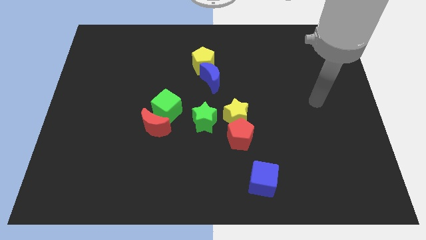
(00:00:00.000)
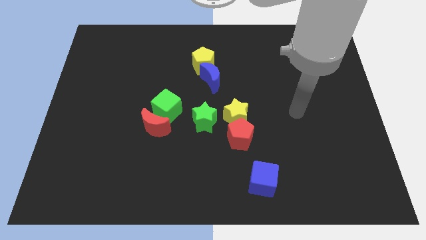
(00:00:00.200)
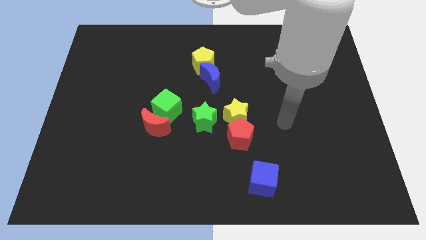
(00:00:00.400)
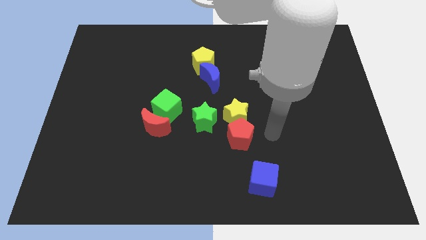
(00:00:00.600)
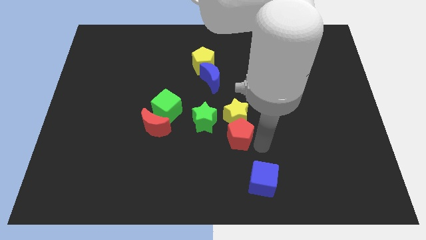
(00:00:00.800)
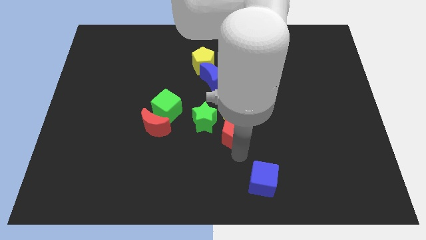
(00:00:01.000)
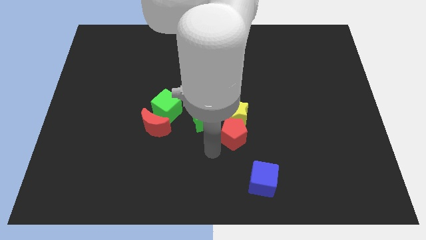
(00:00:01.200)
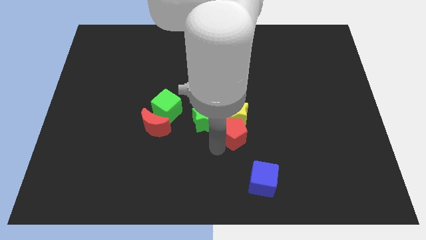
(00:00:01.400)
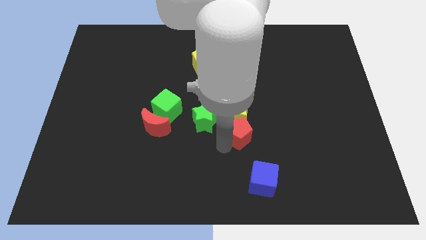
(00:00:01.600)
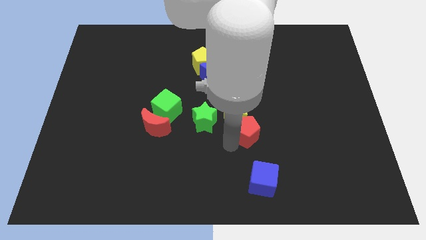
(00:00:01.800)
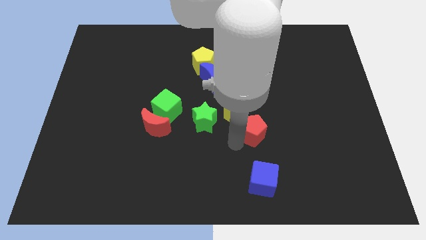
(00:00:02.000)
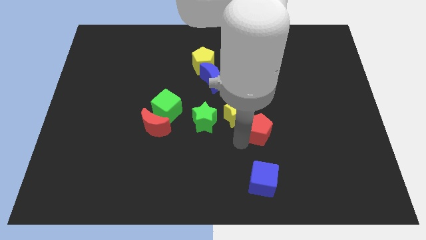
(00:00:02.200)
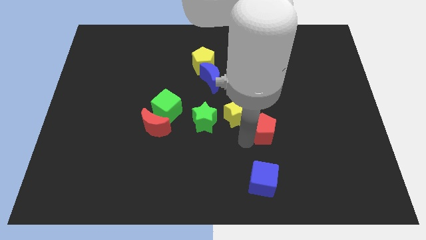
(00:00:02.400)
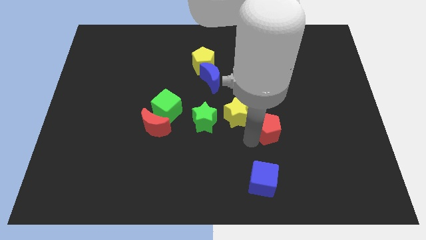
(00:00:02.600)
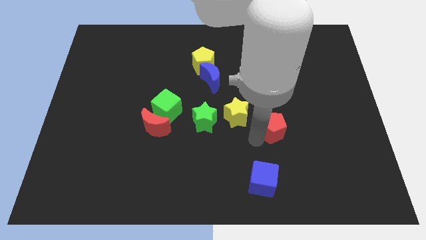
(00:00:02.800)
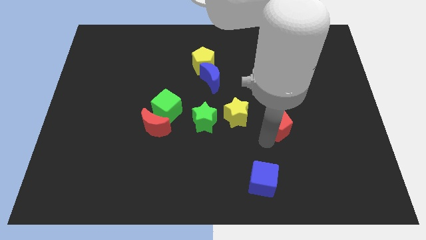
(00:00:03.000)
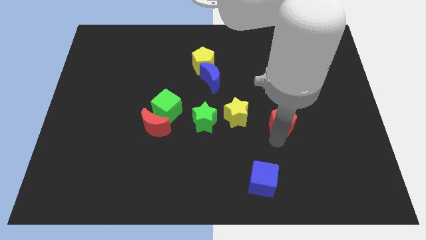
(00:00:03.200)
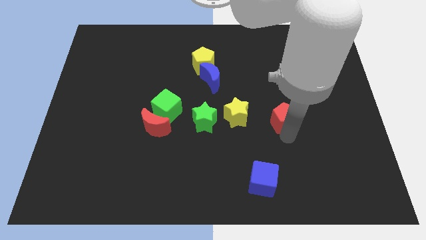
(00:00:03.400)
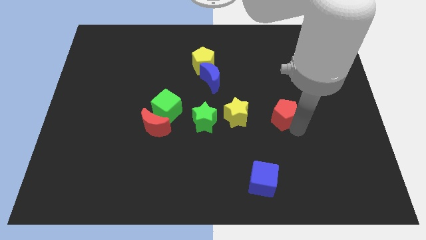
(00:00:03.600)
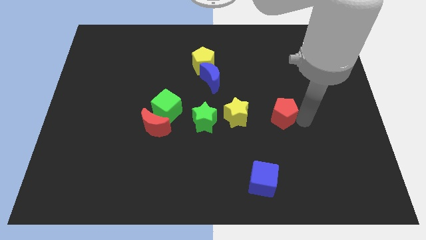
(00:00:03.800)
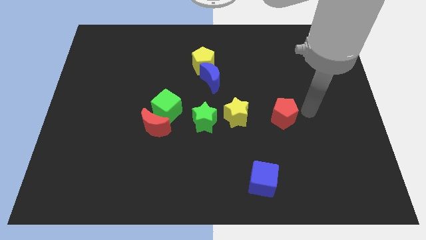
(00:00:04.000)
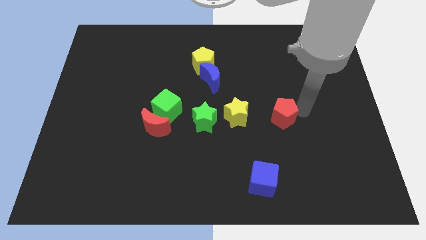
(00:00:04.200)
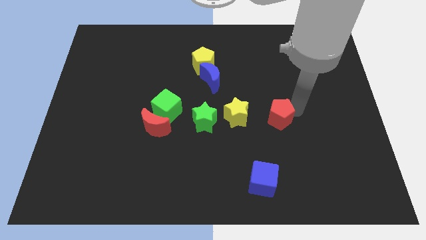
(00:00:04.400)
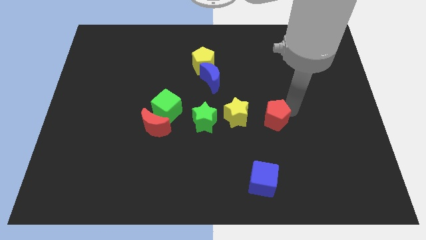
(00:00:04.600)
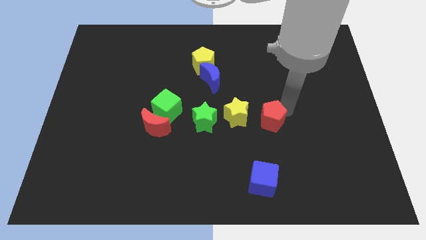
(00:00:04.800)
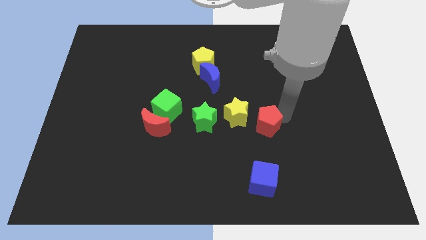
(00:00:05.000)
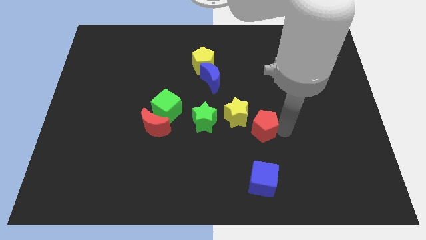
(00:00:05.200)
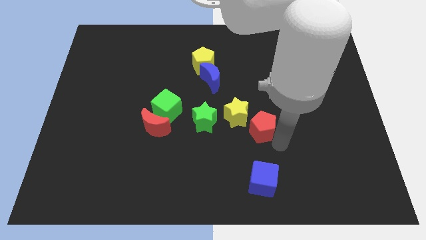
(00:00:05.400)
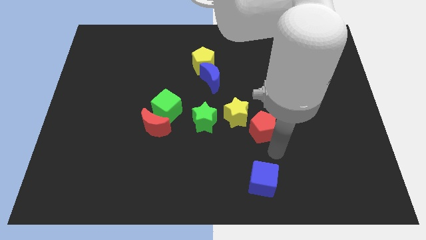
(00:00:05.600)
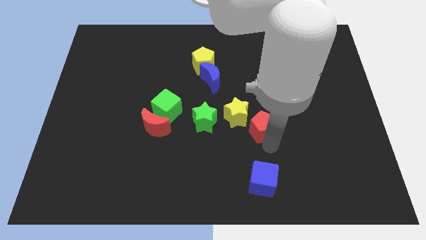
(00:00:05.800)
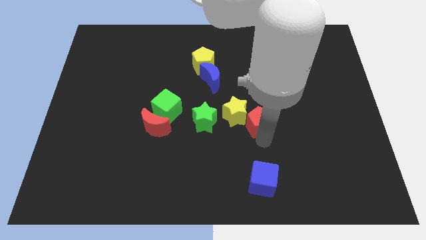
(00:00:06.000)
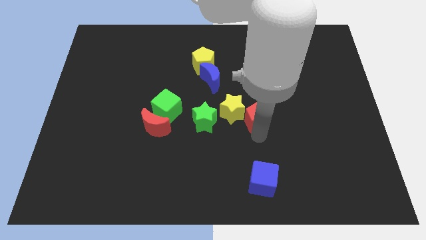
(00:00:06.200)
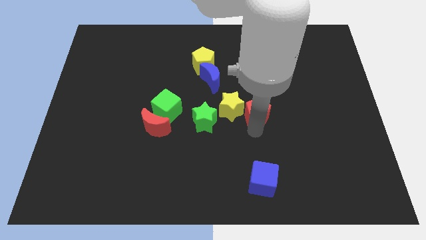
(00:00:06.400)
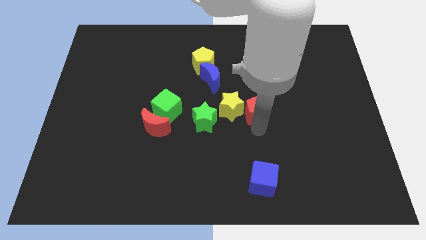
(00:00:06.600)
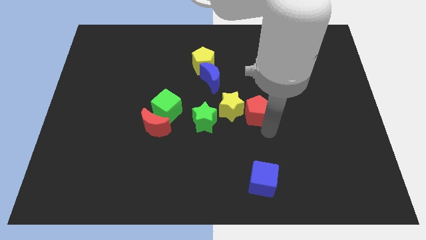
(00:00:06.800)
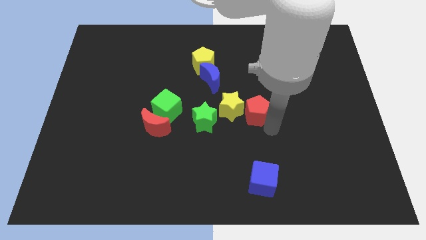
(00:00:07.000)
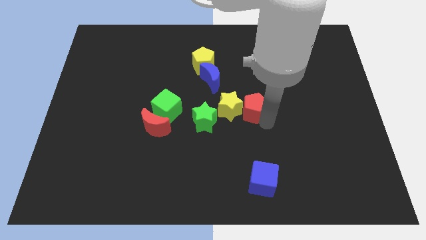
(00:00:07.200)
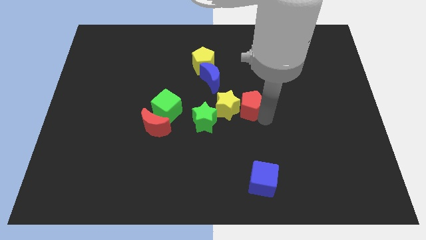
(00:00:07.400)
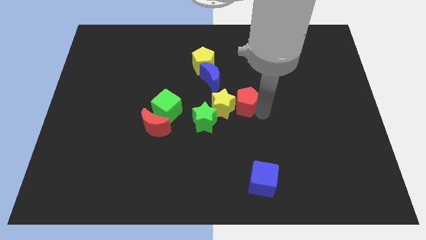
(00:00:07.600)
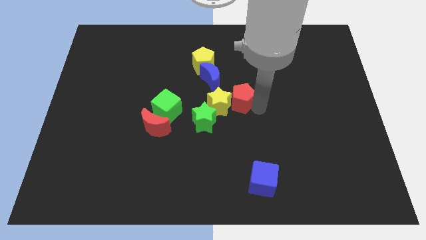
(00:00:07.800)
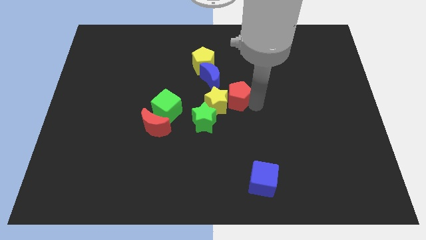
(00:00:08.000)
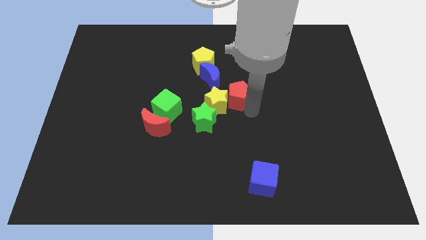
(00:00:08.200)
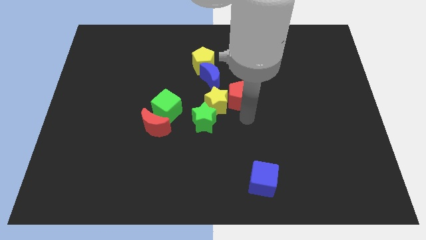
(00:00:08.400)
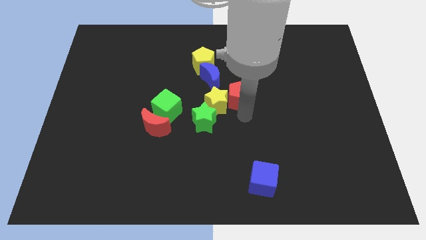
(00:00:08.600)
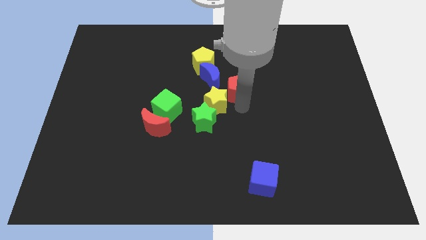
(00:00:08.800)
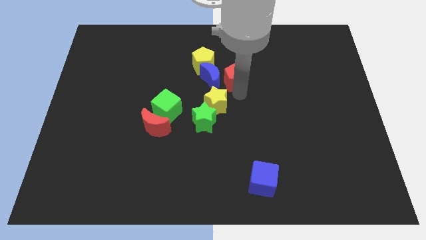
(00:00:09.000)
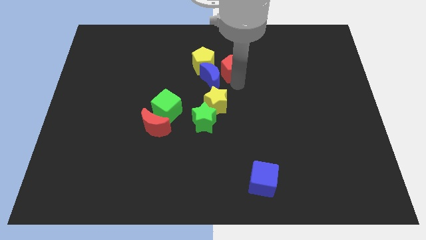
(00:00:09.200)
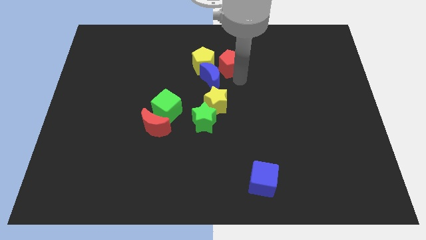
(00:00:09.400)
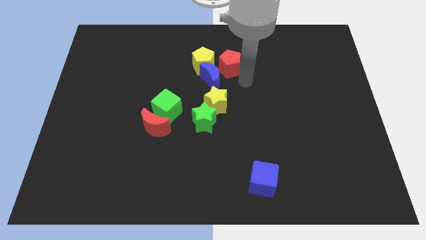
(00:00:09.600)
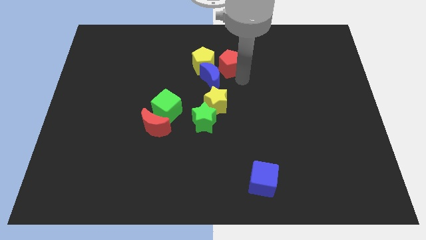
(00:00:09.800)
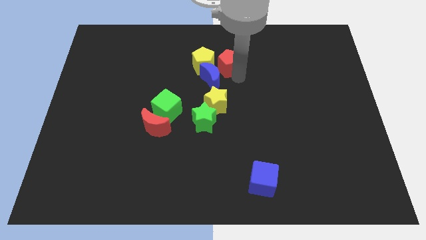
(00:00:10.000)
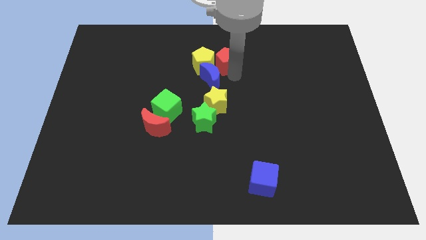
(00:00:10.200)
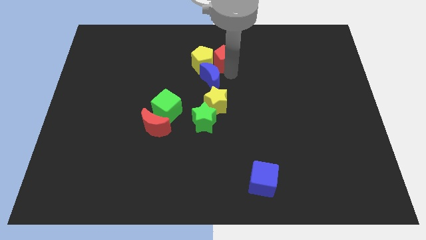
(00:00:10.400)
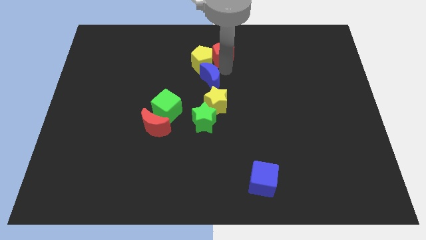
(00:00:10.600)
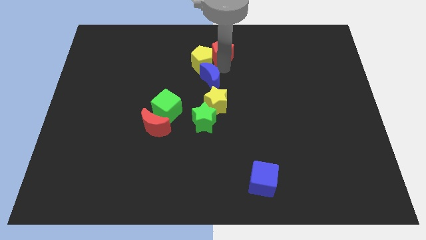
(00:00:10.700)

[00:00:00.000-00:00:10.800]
push the red pentagon to the top side
